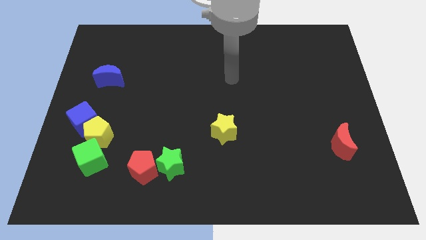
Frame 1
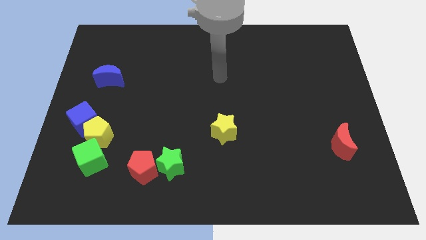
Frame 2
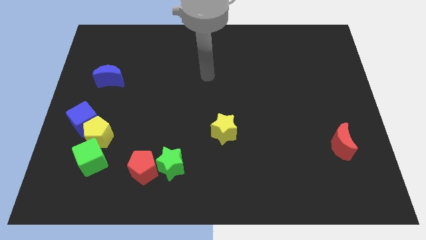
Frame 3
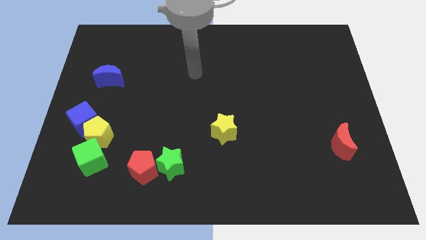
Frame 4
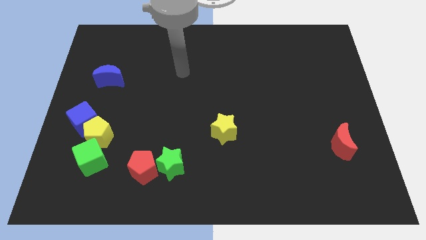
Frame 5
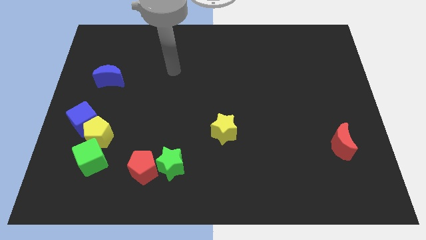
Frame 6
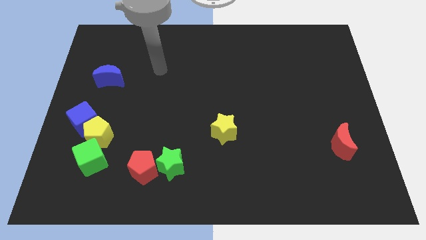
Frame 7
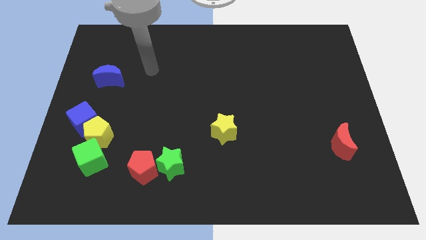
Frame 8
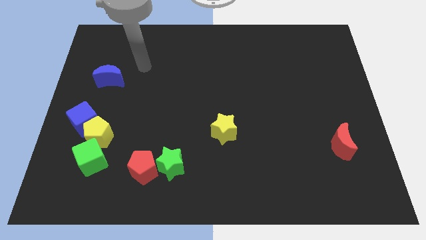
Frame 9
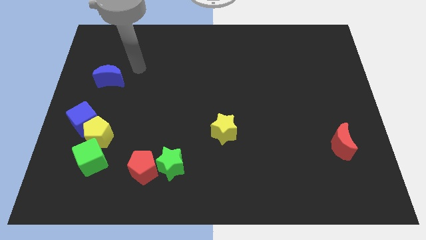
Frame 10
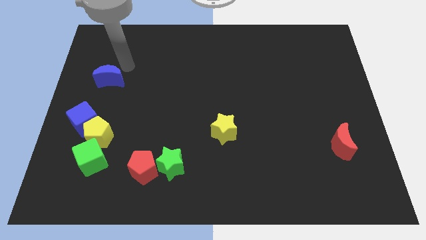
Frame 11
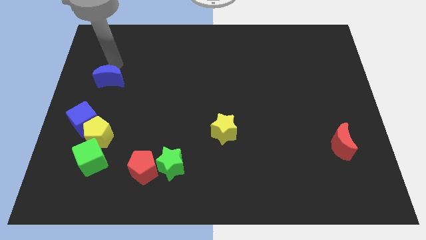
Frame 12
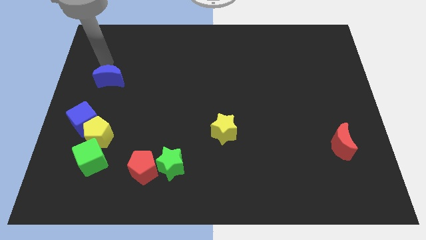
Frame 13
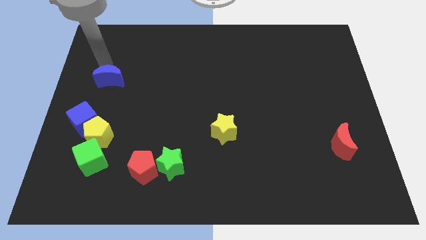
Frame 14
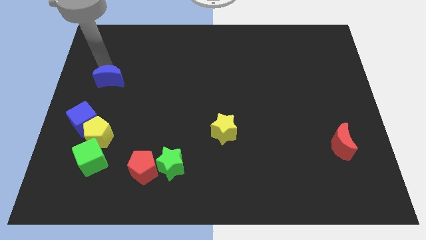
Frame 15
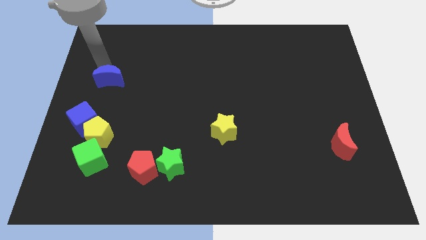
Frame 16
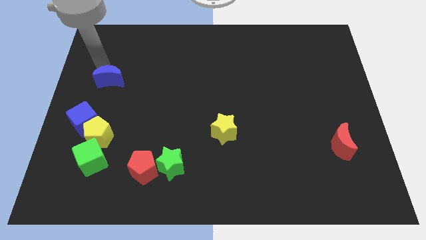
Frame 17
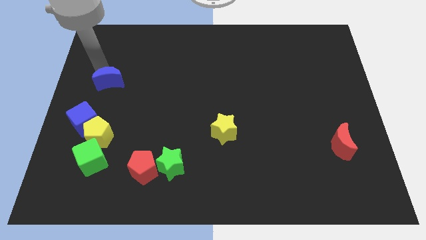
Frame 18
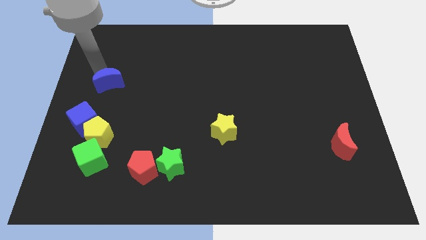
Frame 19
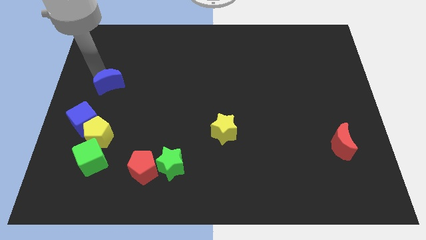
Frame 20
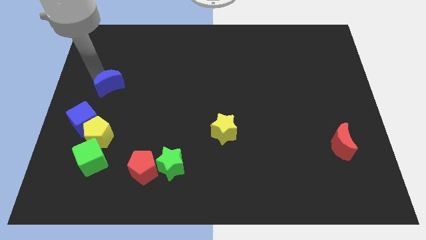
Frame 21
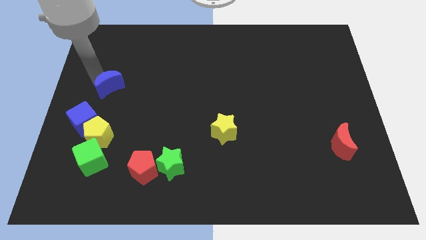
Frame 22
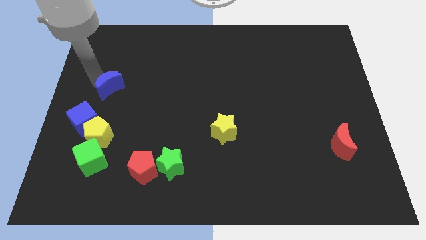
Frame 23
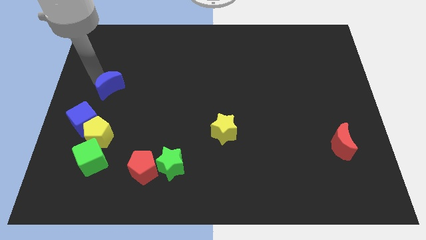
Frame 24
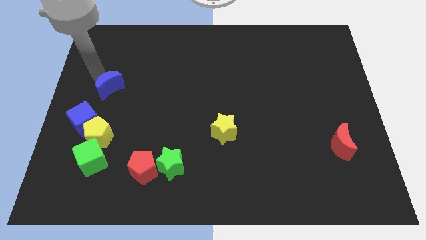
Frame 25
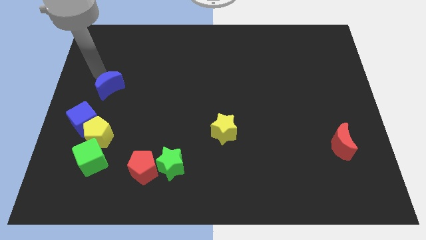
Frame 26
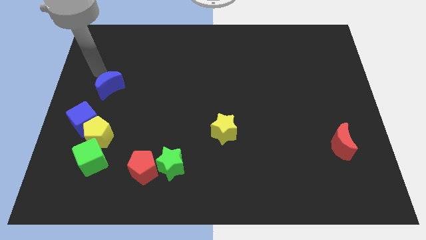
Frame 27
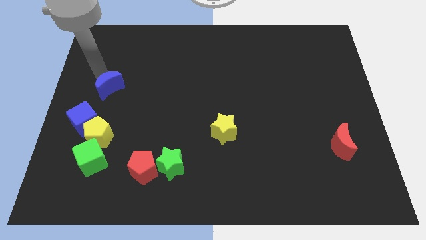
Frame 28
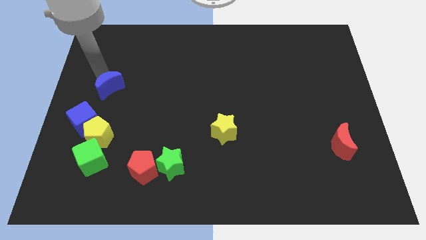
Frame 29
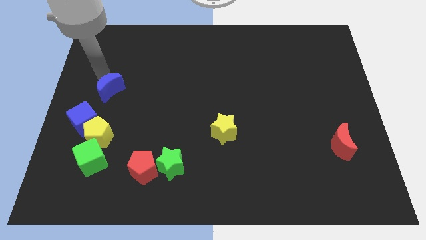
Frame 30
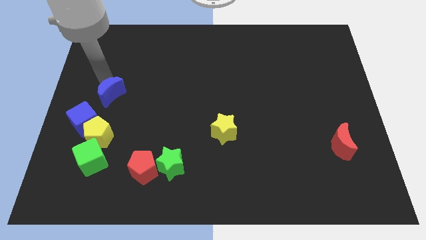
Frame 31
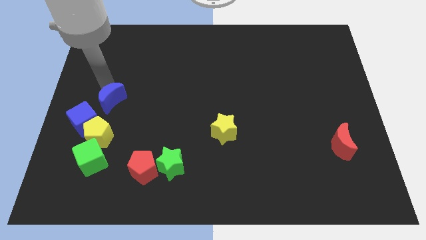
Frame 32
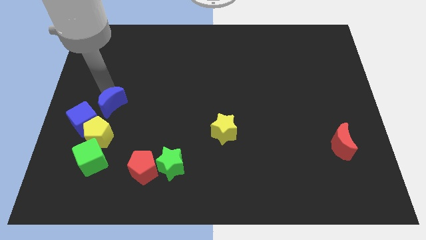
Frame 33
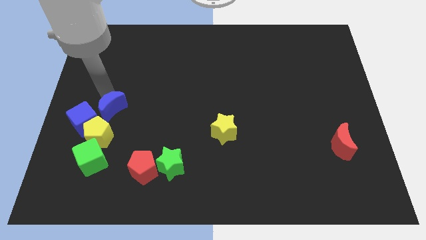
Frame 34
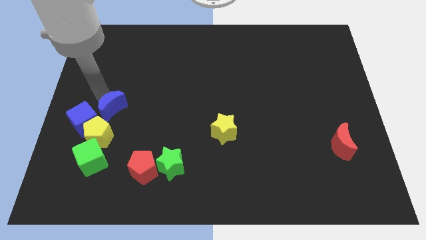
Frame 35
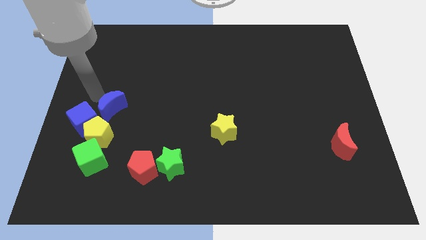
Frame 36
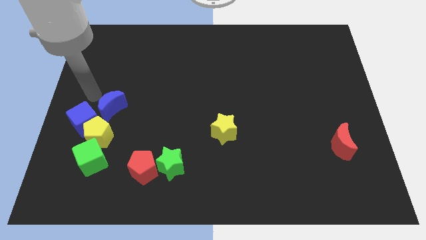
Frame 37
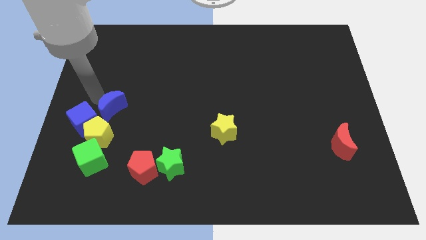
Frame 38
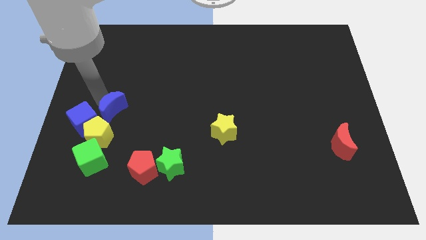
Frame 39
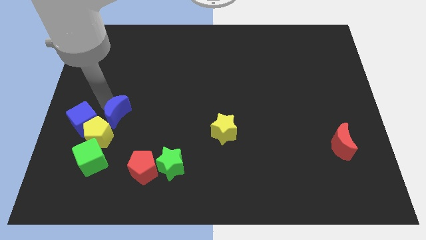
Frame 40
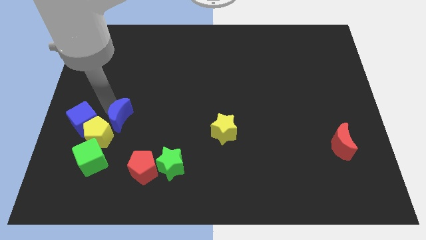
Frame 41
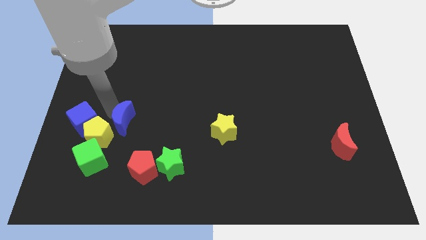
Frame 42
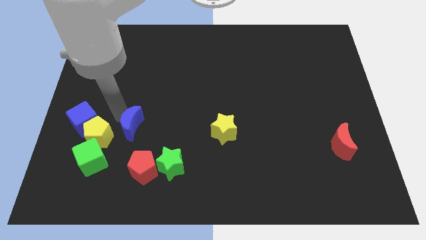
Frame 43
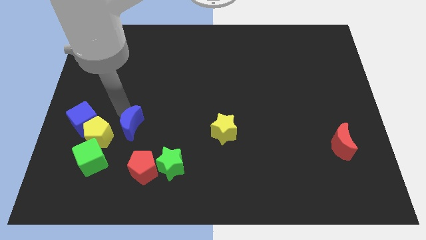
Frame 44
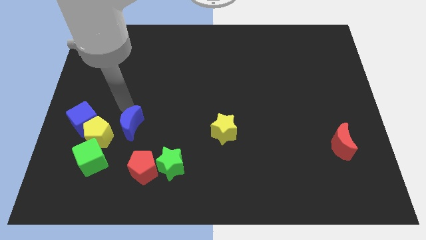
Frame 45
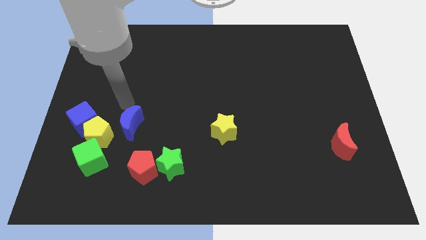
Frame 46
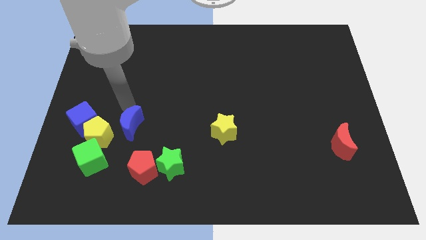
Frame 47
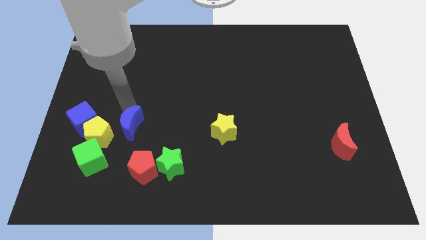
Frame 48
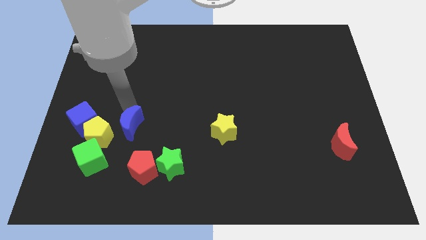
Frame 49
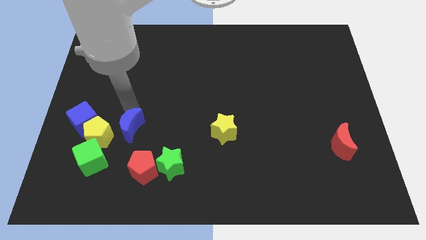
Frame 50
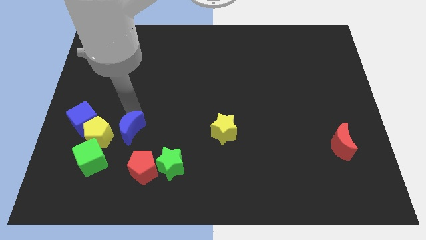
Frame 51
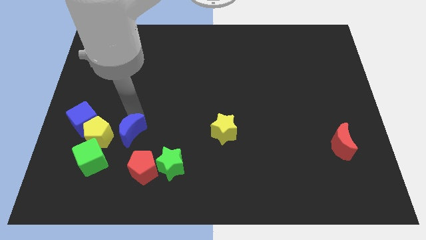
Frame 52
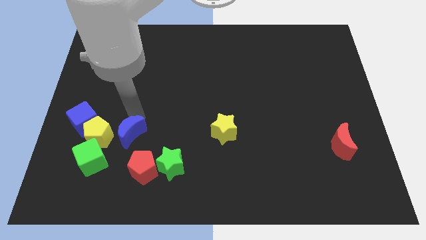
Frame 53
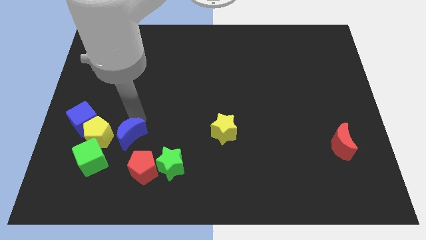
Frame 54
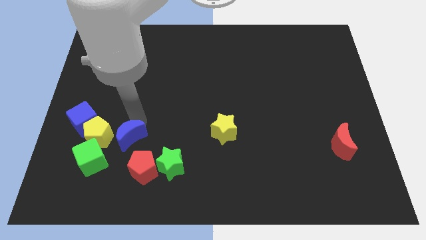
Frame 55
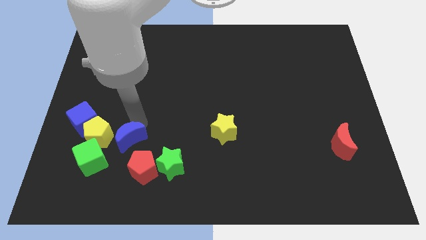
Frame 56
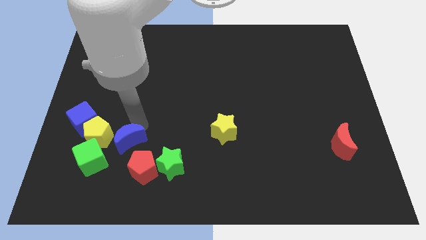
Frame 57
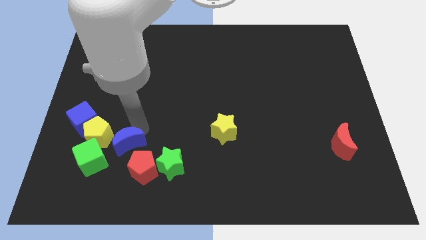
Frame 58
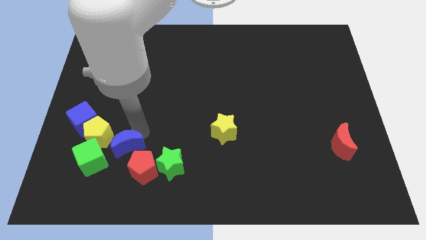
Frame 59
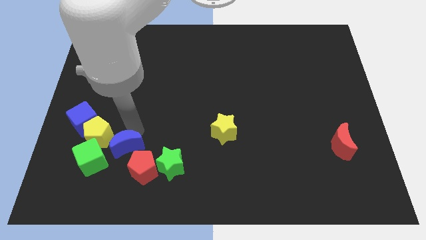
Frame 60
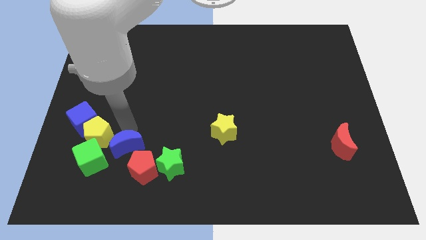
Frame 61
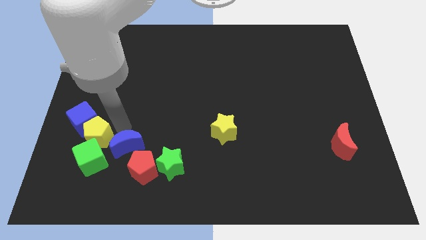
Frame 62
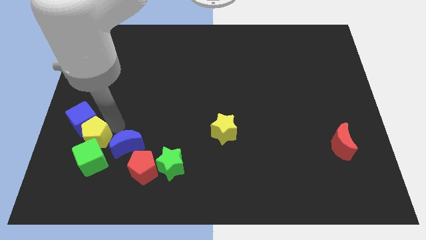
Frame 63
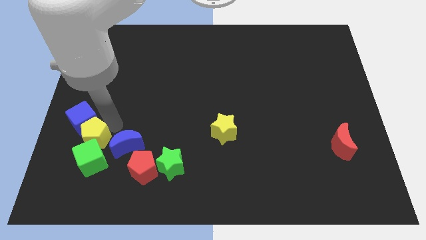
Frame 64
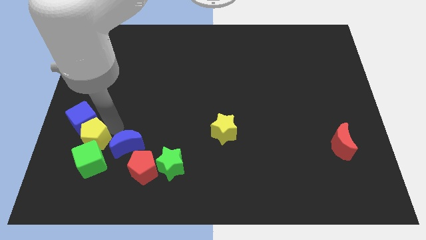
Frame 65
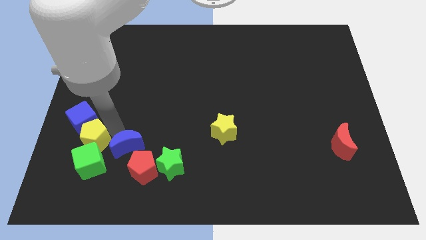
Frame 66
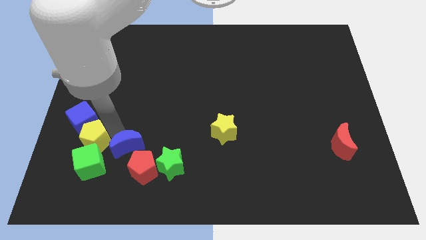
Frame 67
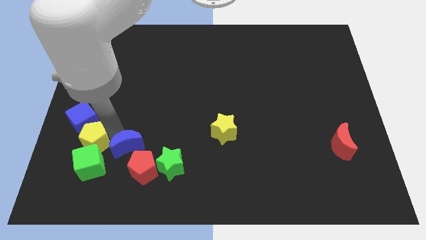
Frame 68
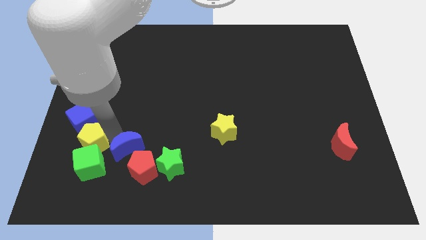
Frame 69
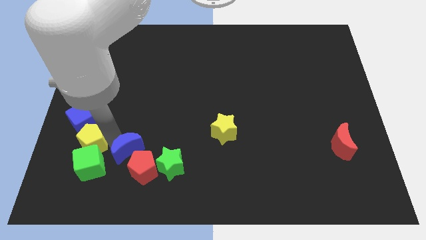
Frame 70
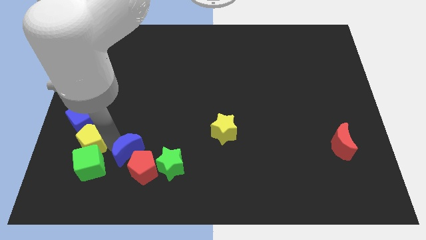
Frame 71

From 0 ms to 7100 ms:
slide the blue moon towards the red pentagon
